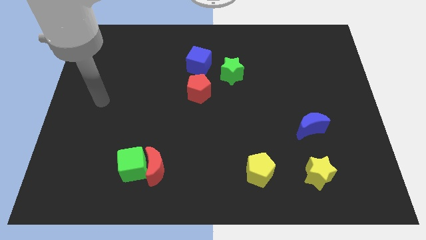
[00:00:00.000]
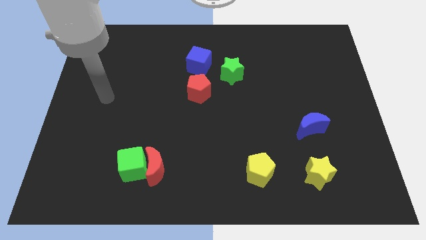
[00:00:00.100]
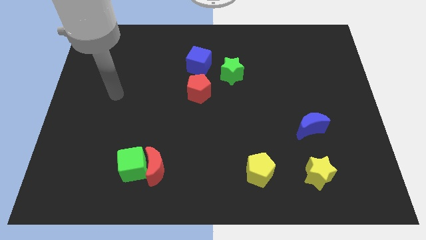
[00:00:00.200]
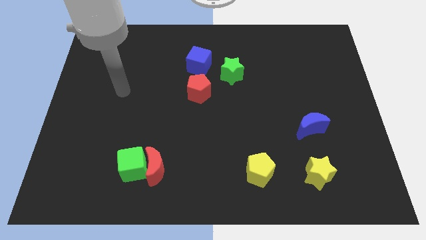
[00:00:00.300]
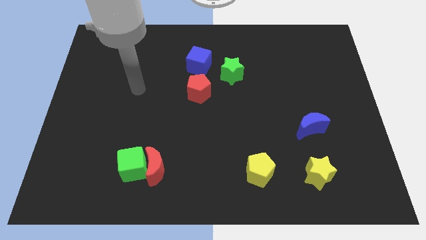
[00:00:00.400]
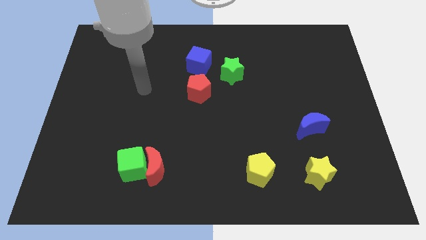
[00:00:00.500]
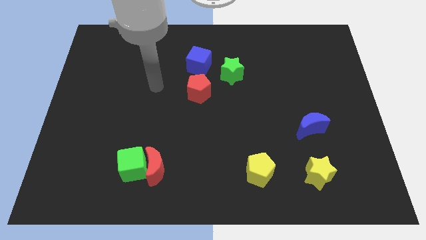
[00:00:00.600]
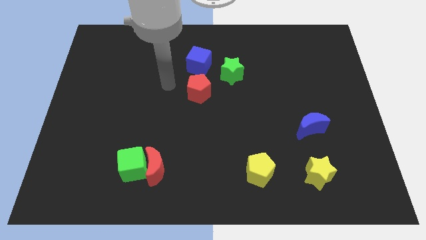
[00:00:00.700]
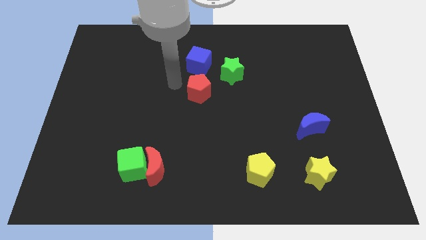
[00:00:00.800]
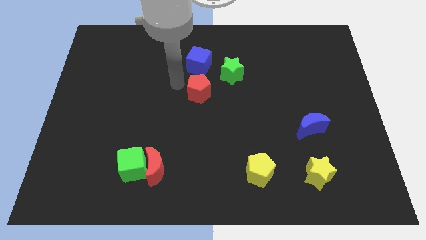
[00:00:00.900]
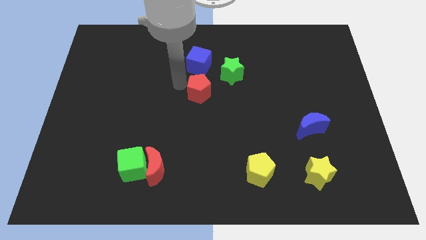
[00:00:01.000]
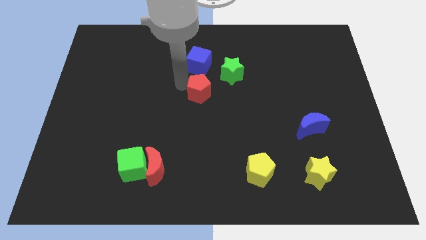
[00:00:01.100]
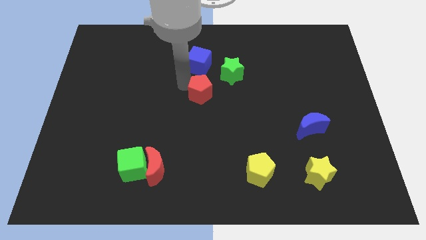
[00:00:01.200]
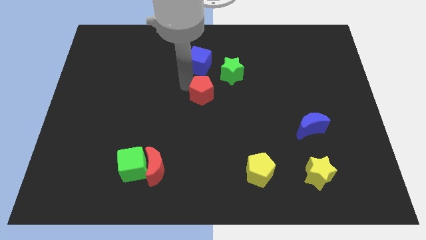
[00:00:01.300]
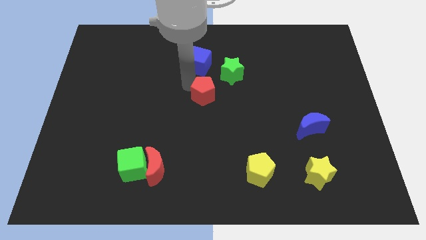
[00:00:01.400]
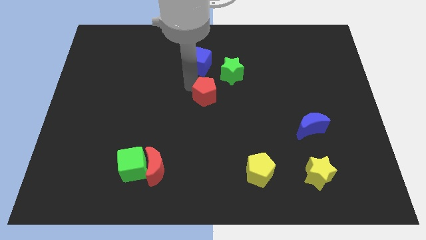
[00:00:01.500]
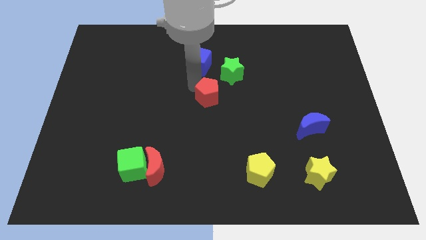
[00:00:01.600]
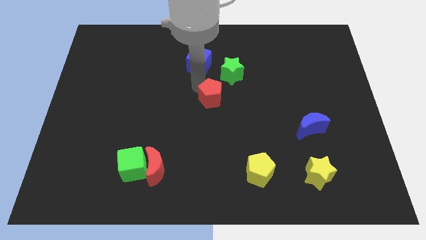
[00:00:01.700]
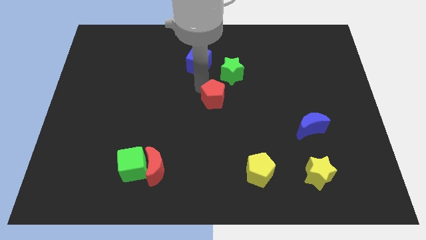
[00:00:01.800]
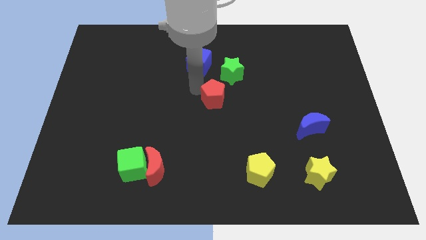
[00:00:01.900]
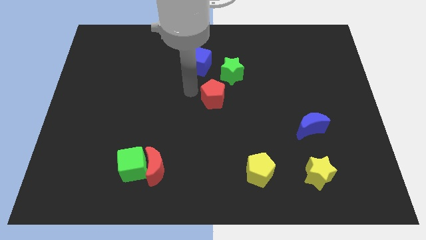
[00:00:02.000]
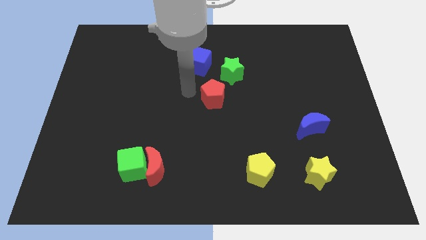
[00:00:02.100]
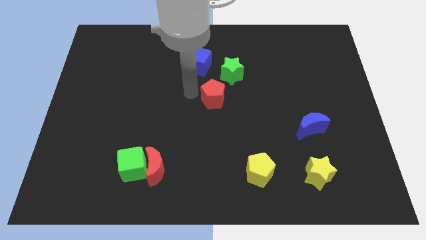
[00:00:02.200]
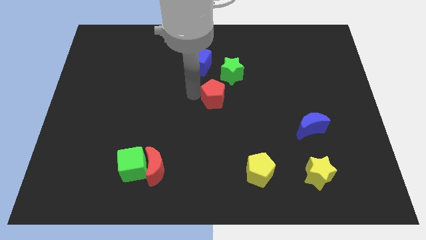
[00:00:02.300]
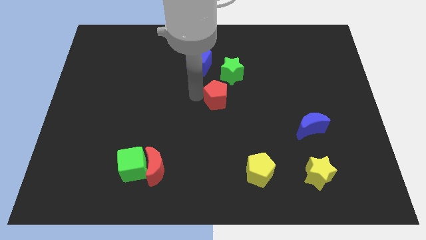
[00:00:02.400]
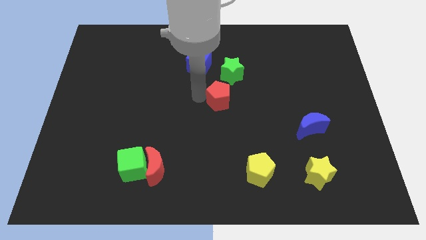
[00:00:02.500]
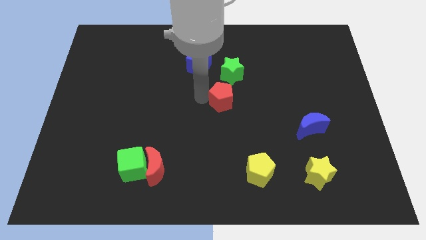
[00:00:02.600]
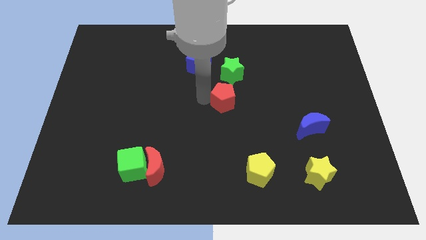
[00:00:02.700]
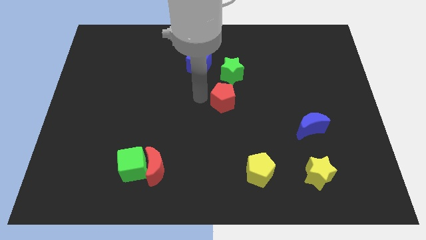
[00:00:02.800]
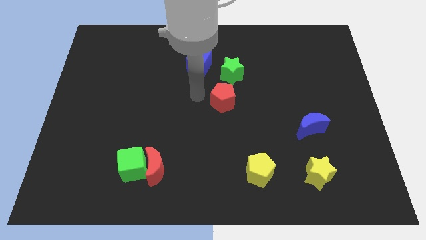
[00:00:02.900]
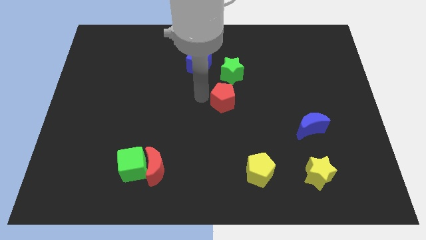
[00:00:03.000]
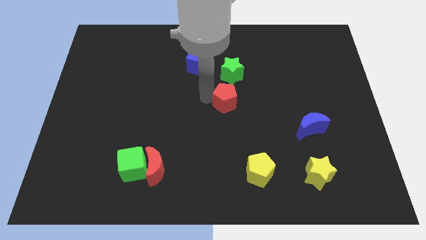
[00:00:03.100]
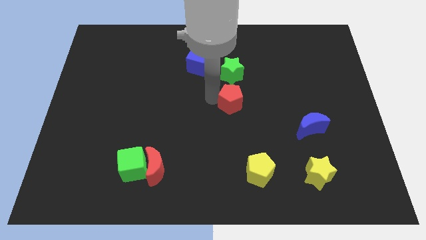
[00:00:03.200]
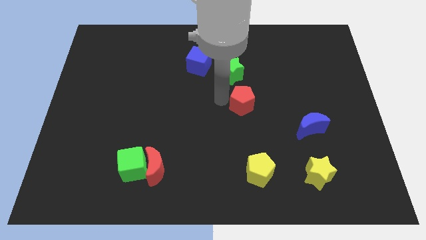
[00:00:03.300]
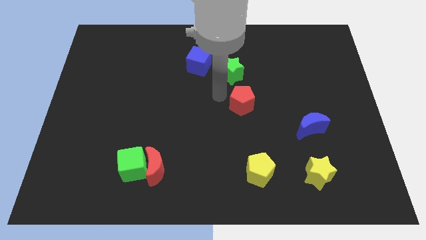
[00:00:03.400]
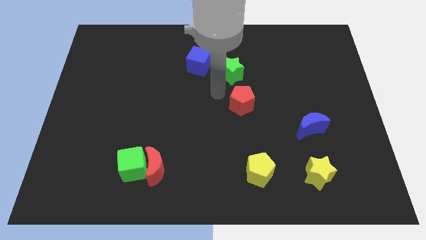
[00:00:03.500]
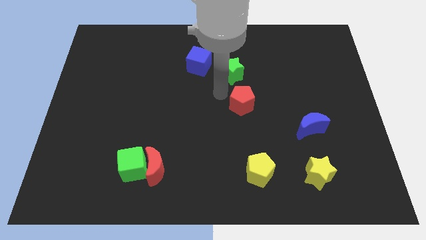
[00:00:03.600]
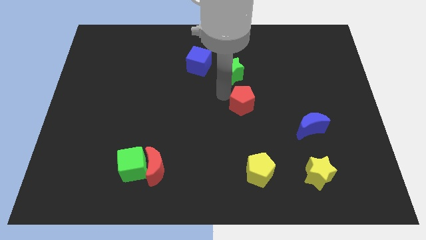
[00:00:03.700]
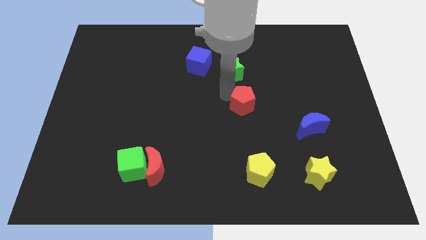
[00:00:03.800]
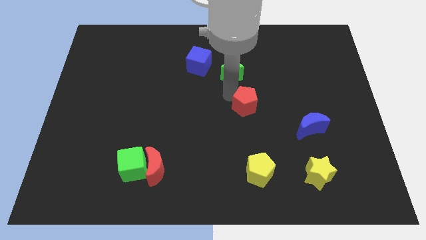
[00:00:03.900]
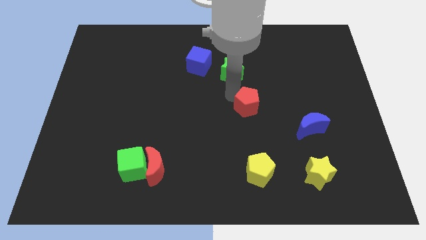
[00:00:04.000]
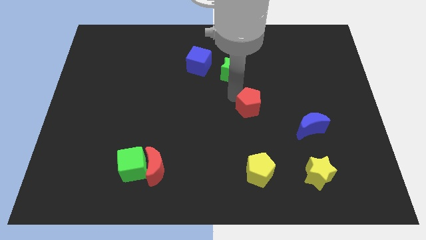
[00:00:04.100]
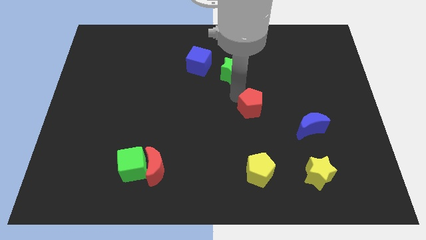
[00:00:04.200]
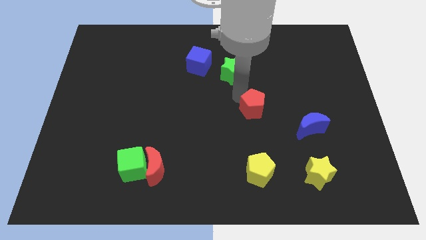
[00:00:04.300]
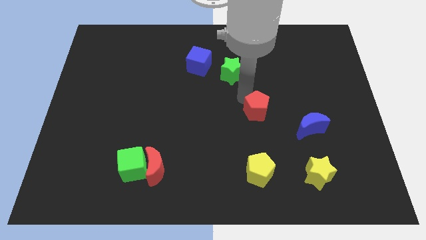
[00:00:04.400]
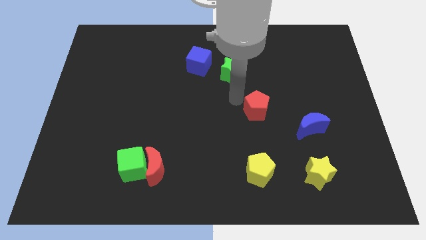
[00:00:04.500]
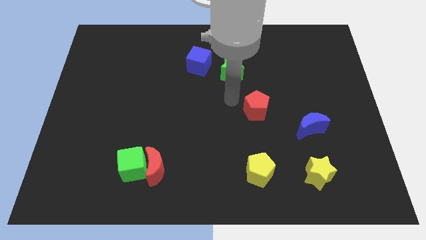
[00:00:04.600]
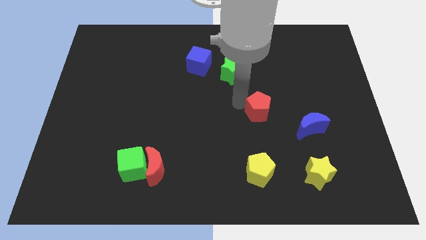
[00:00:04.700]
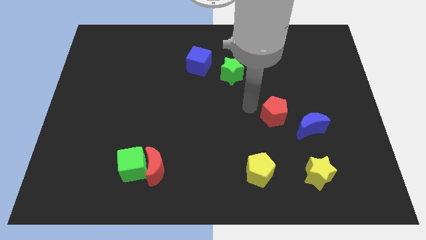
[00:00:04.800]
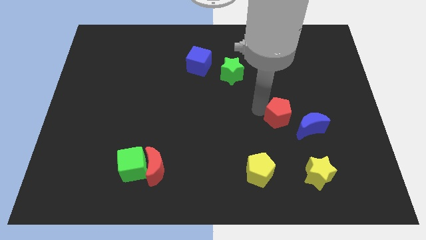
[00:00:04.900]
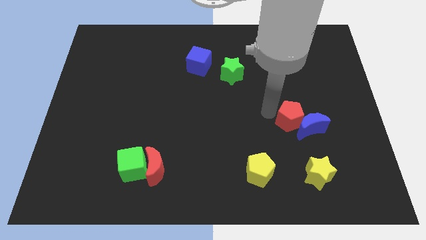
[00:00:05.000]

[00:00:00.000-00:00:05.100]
slide the red pentagon towards the blue moon

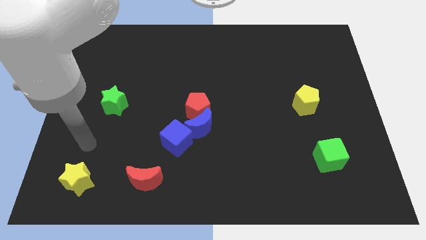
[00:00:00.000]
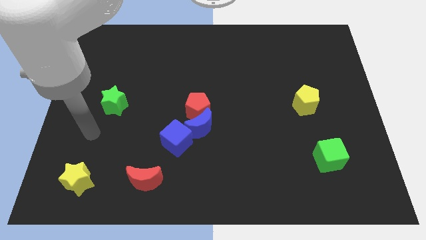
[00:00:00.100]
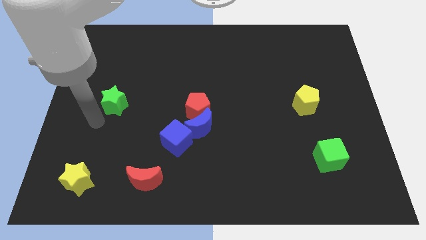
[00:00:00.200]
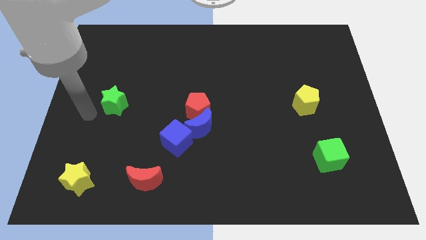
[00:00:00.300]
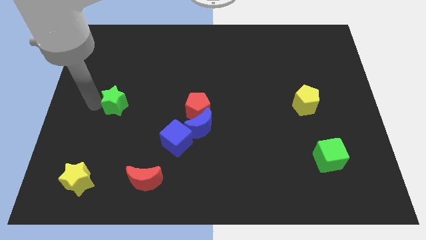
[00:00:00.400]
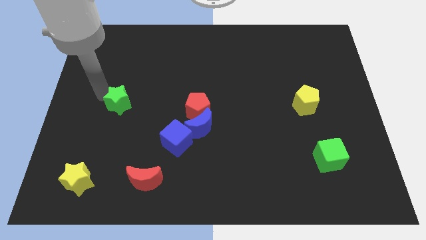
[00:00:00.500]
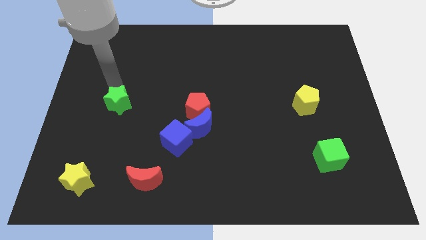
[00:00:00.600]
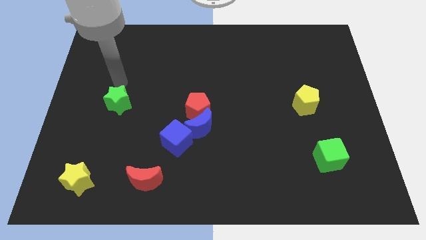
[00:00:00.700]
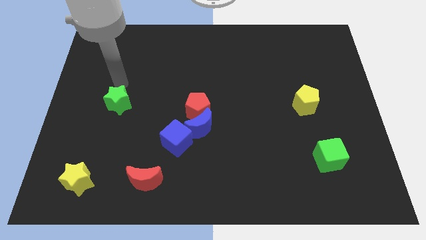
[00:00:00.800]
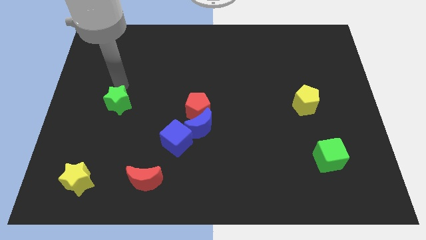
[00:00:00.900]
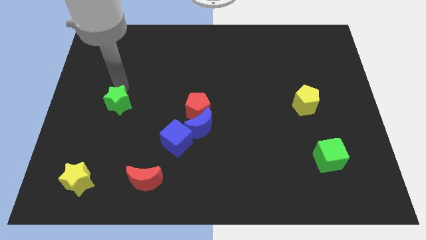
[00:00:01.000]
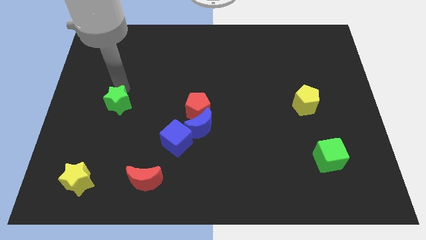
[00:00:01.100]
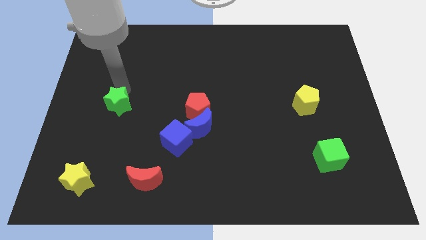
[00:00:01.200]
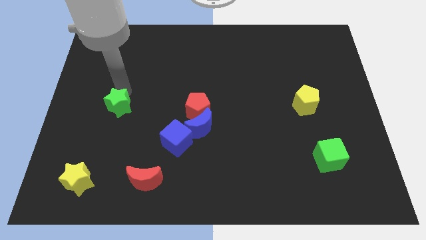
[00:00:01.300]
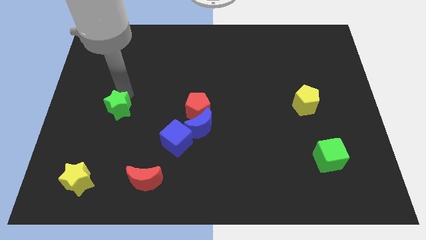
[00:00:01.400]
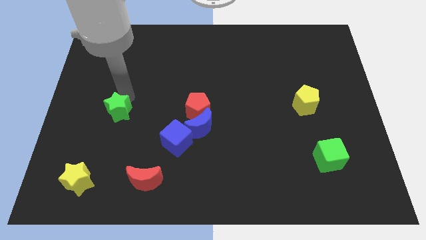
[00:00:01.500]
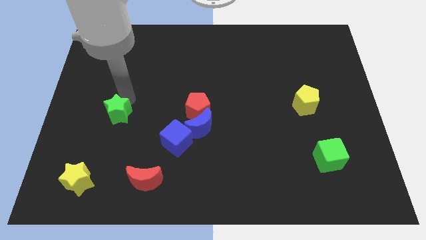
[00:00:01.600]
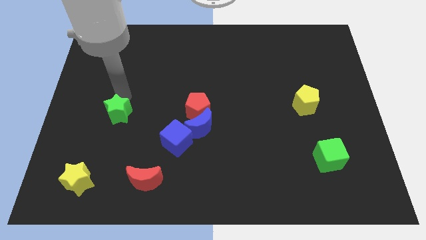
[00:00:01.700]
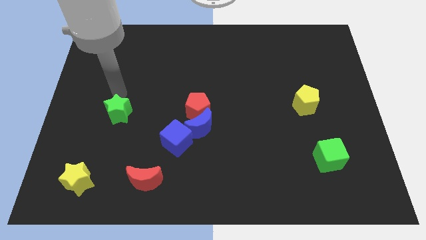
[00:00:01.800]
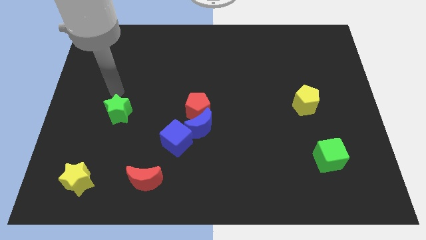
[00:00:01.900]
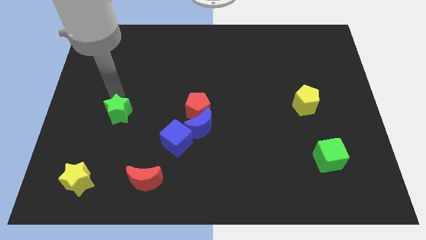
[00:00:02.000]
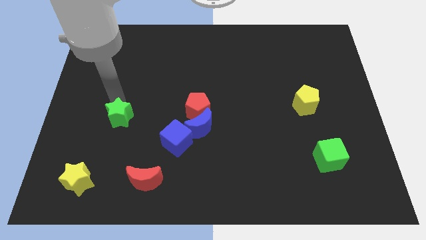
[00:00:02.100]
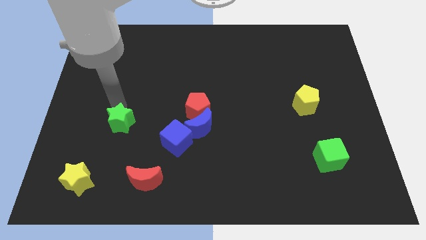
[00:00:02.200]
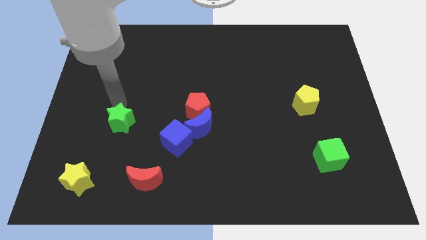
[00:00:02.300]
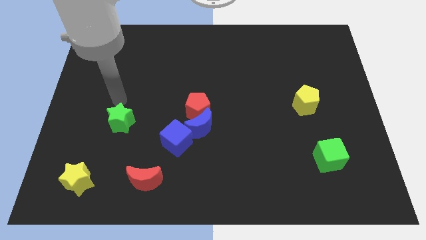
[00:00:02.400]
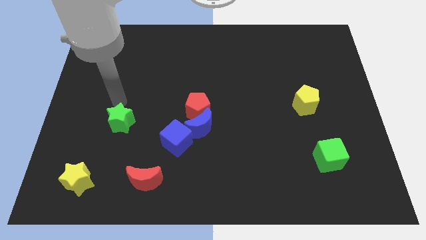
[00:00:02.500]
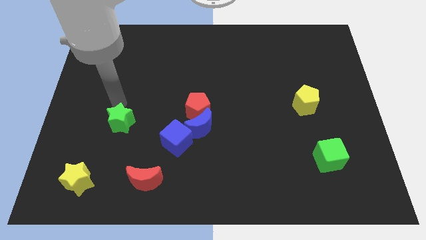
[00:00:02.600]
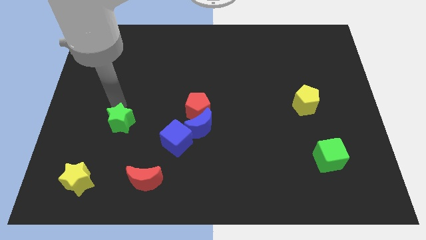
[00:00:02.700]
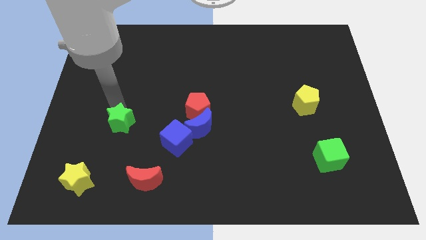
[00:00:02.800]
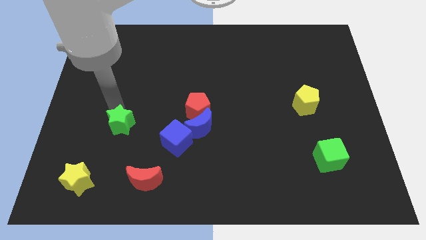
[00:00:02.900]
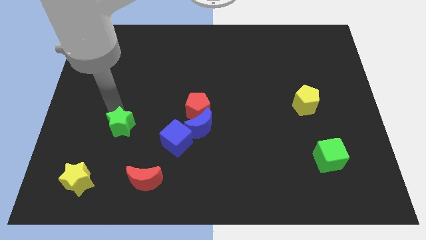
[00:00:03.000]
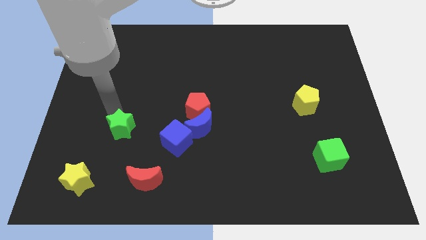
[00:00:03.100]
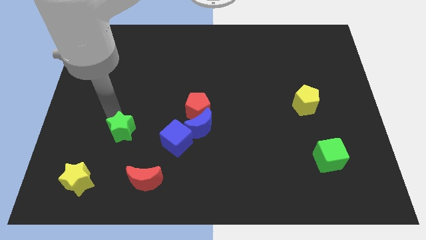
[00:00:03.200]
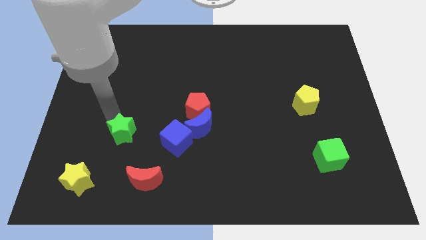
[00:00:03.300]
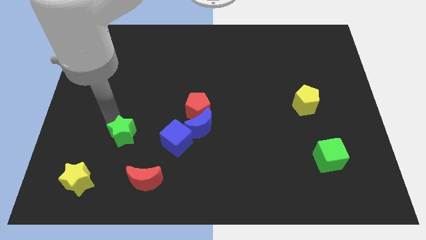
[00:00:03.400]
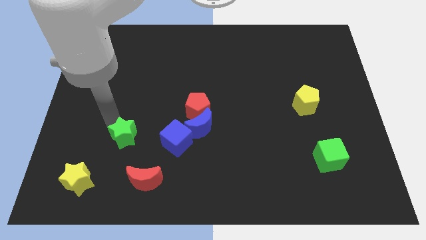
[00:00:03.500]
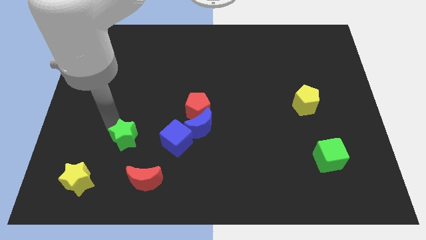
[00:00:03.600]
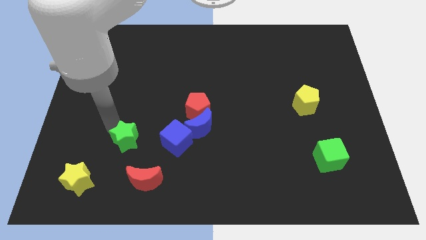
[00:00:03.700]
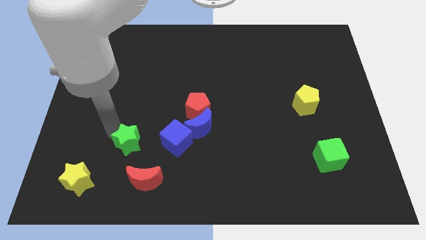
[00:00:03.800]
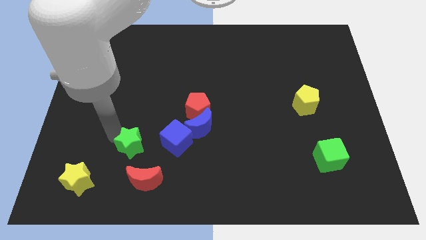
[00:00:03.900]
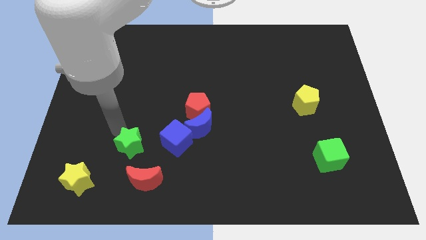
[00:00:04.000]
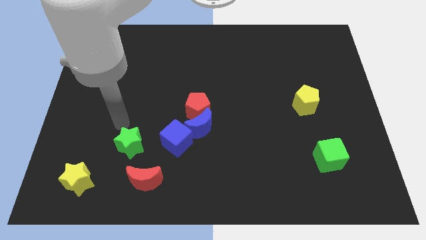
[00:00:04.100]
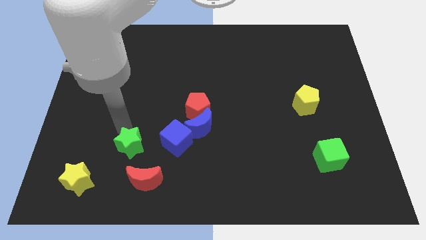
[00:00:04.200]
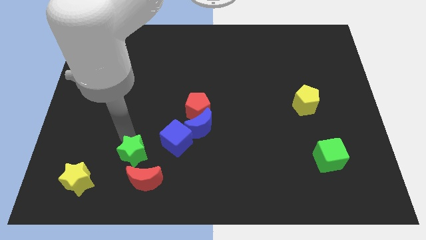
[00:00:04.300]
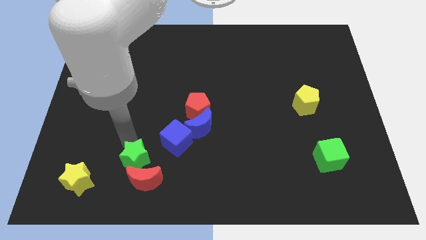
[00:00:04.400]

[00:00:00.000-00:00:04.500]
push the green star next to the red moon
